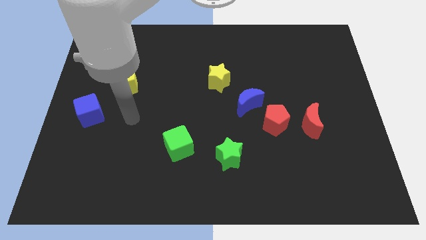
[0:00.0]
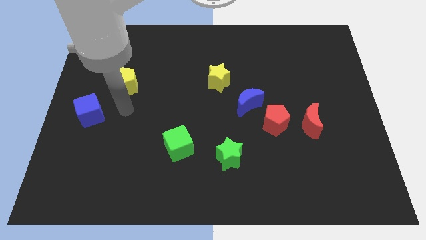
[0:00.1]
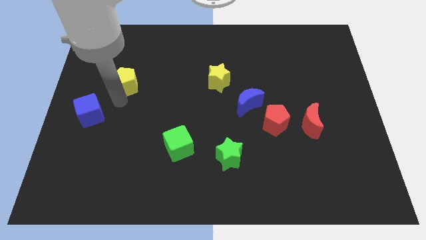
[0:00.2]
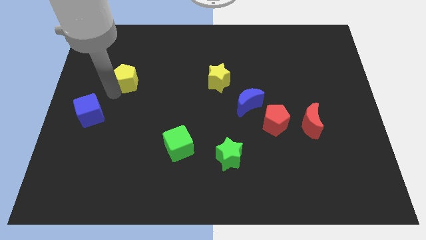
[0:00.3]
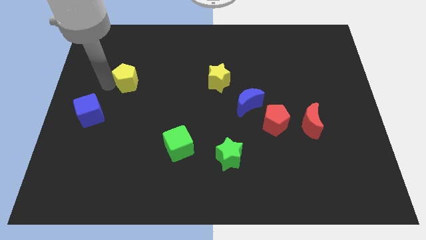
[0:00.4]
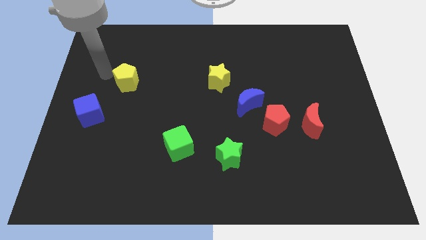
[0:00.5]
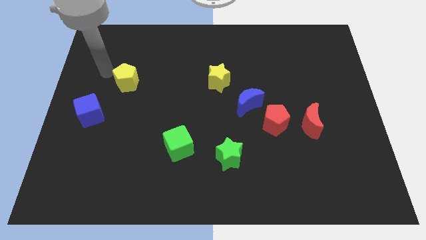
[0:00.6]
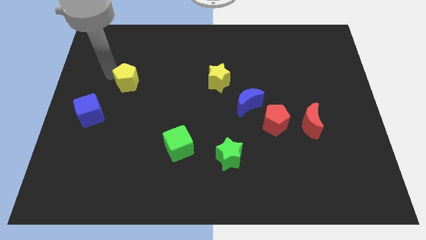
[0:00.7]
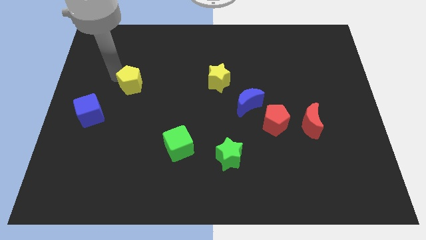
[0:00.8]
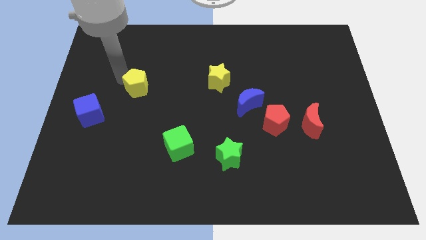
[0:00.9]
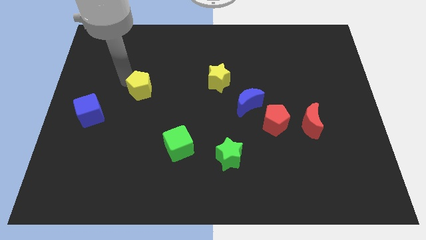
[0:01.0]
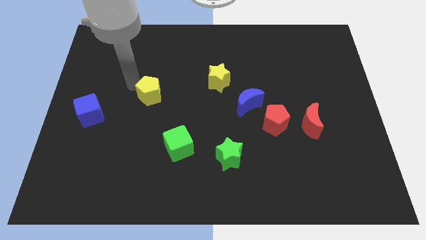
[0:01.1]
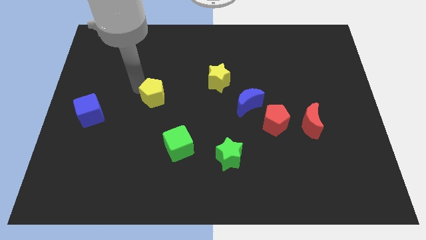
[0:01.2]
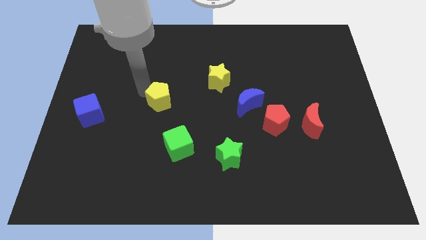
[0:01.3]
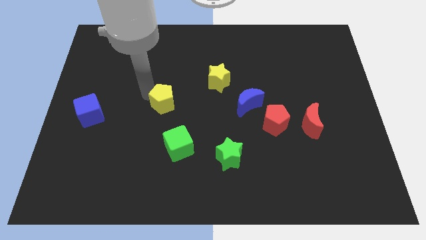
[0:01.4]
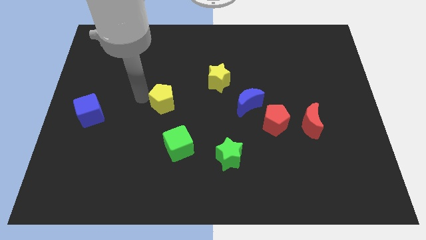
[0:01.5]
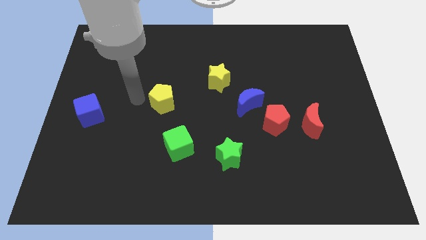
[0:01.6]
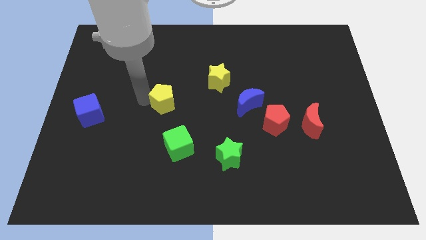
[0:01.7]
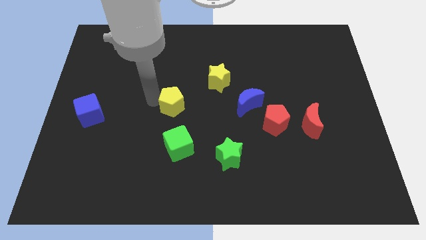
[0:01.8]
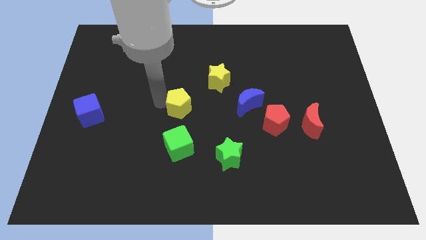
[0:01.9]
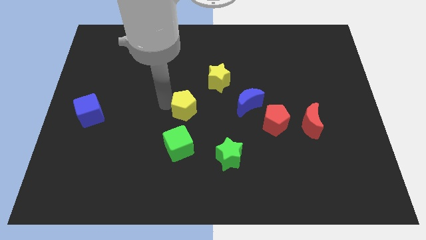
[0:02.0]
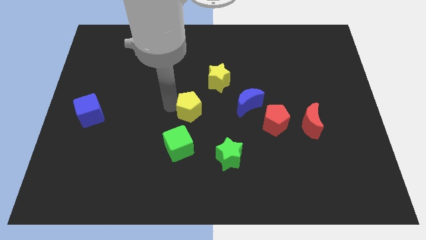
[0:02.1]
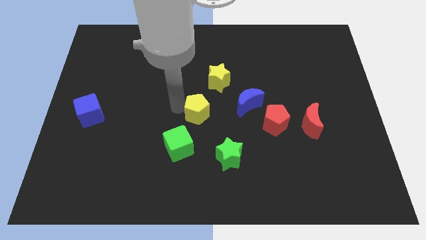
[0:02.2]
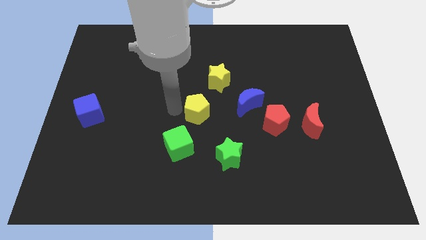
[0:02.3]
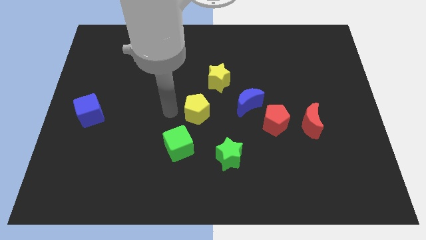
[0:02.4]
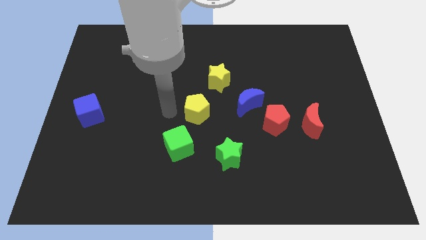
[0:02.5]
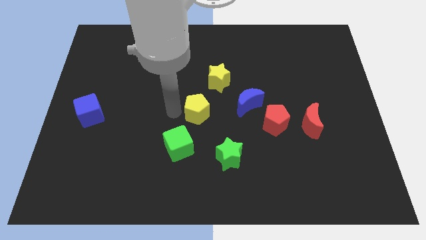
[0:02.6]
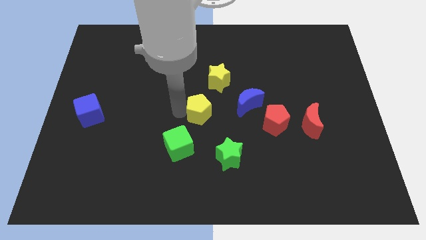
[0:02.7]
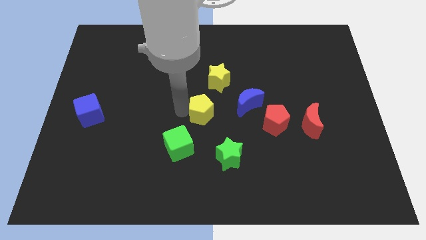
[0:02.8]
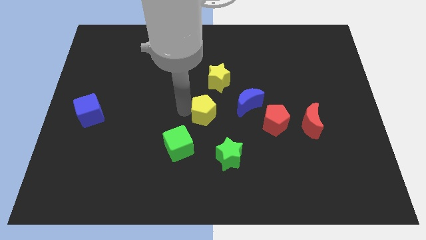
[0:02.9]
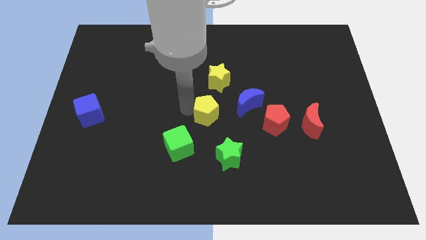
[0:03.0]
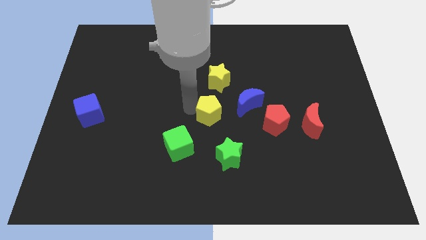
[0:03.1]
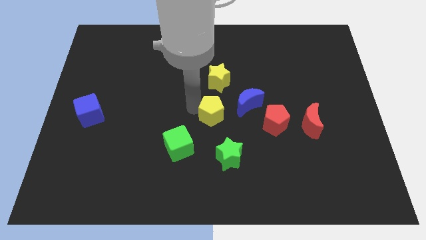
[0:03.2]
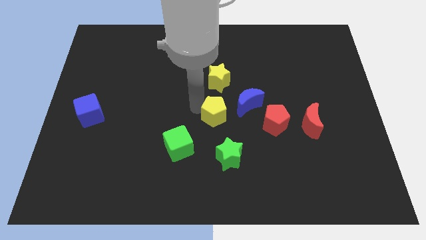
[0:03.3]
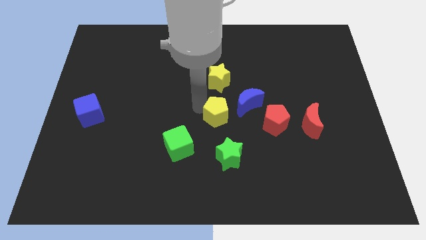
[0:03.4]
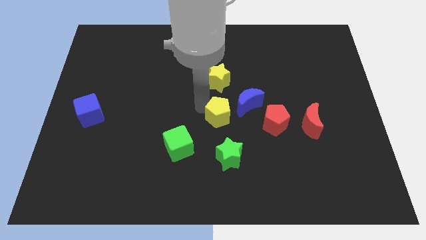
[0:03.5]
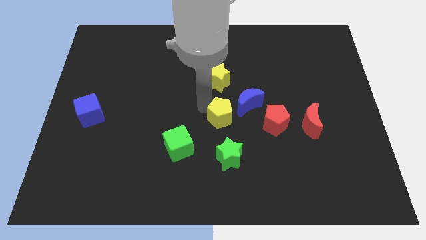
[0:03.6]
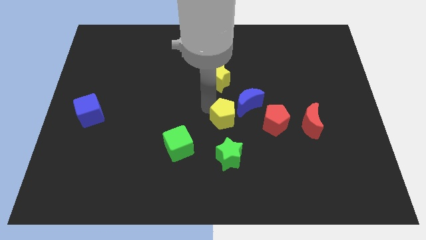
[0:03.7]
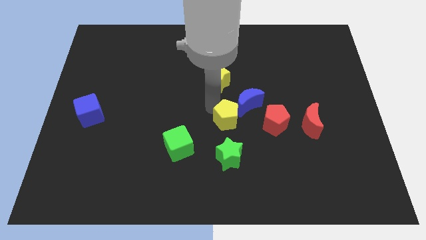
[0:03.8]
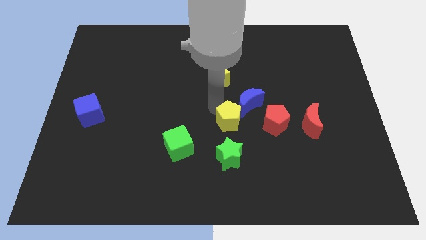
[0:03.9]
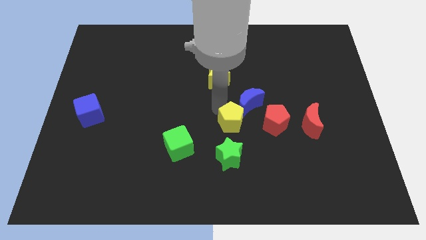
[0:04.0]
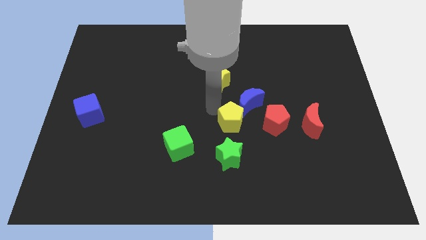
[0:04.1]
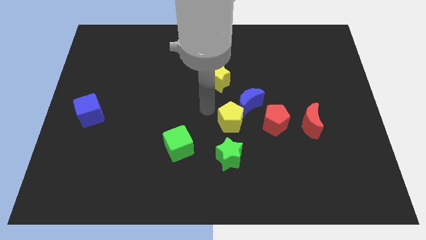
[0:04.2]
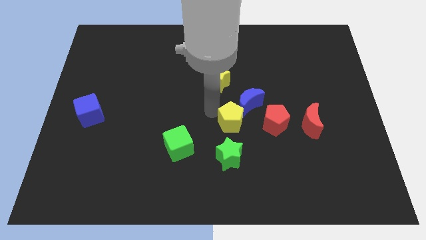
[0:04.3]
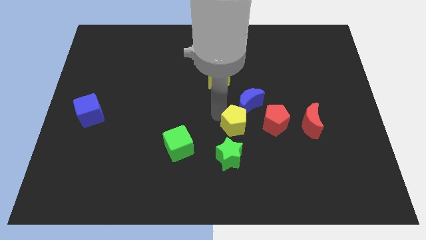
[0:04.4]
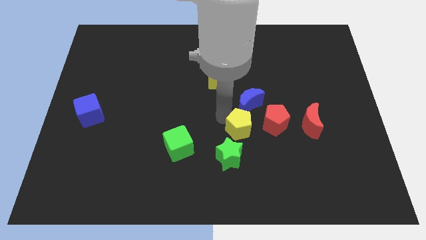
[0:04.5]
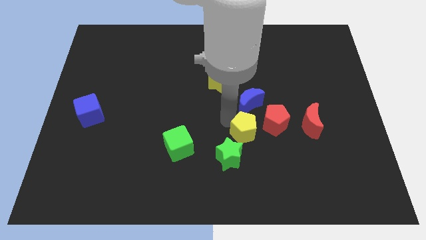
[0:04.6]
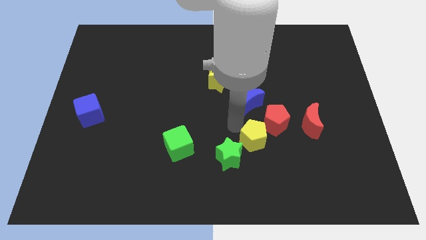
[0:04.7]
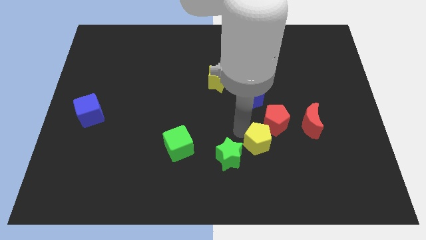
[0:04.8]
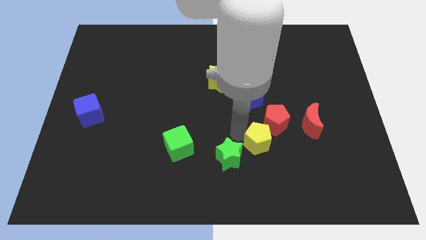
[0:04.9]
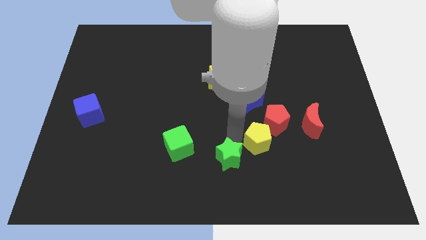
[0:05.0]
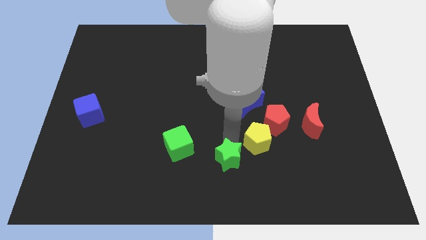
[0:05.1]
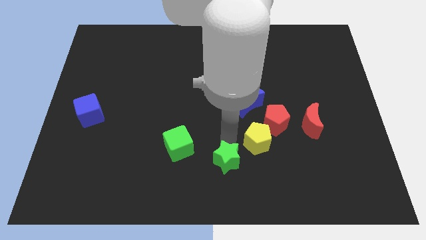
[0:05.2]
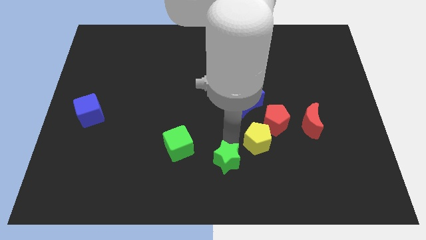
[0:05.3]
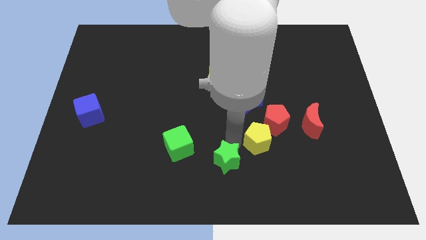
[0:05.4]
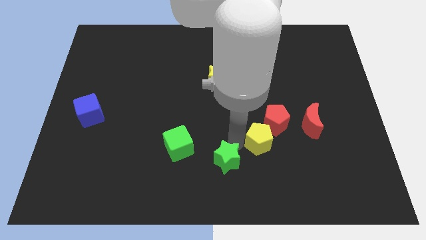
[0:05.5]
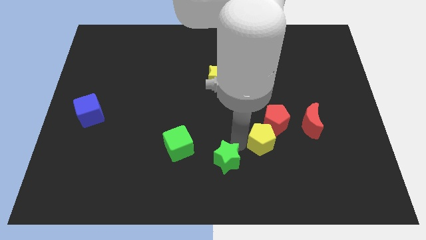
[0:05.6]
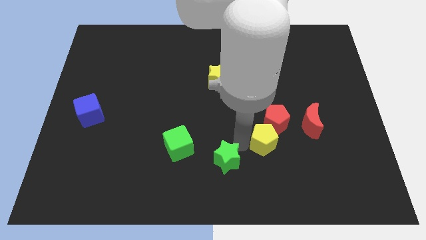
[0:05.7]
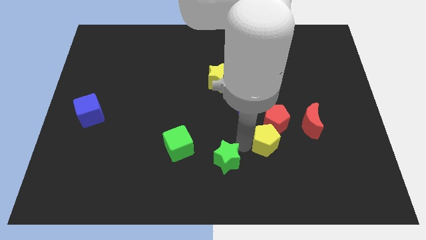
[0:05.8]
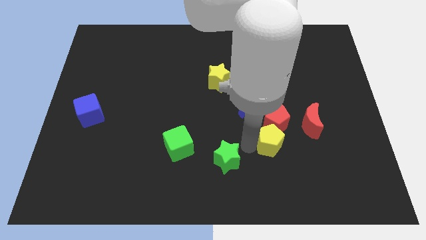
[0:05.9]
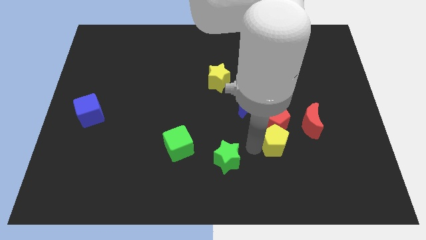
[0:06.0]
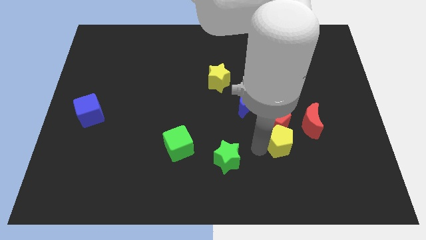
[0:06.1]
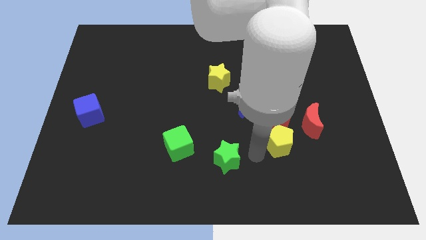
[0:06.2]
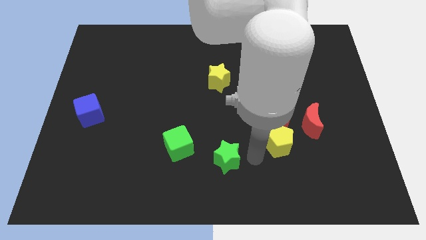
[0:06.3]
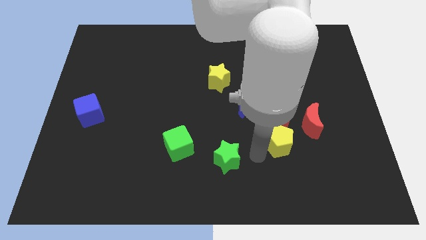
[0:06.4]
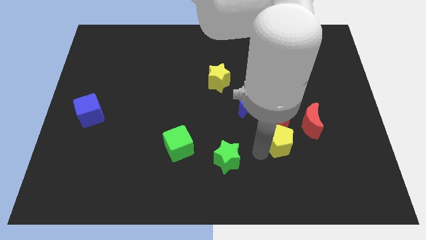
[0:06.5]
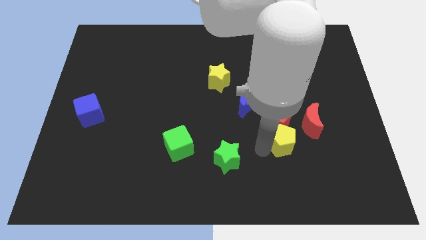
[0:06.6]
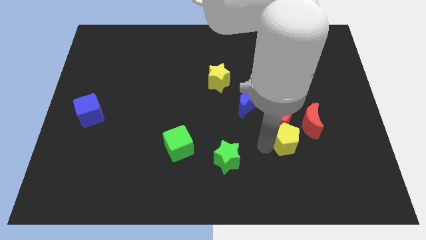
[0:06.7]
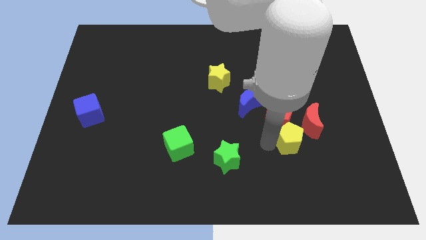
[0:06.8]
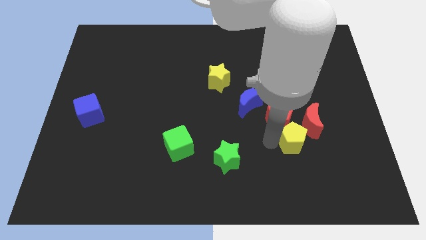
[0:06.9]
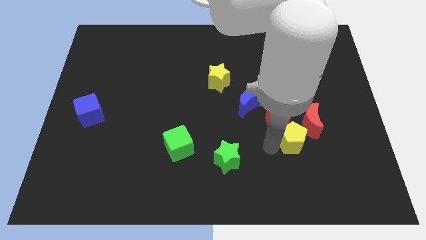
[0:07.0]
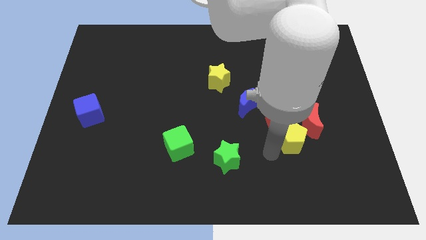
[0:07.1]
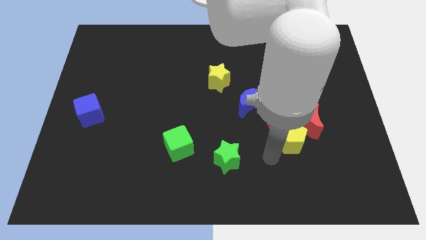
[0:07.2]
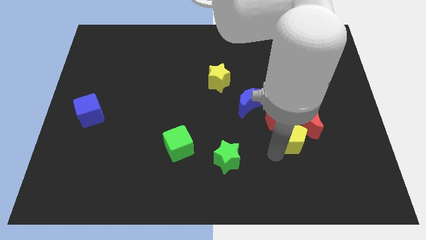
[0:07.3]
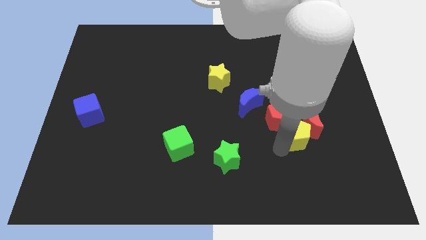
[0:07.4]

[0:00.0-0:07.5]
put the yellow pentagon to the red moon
